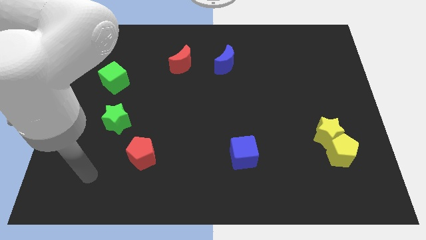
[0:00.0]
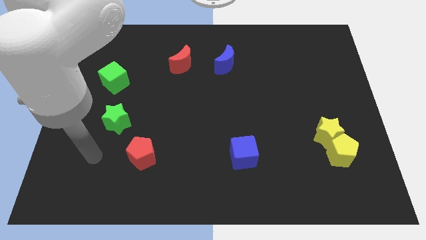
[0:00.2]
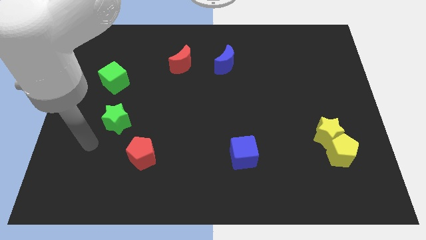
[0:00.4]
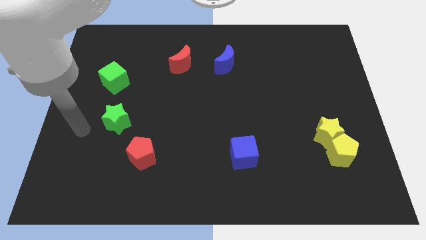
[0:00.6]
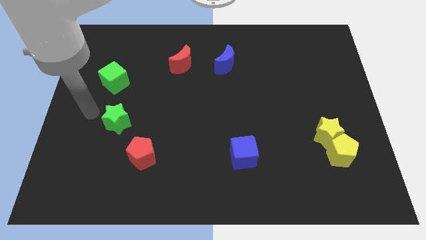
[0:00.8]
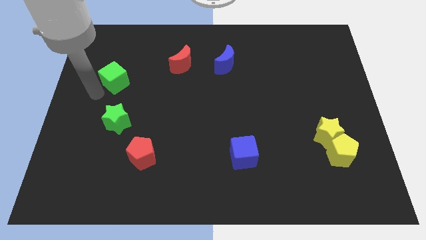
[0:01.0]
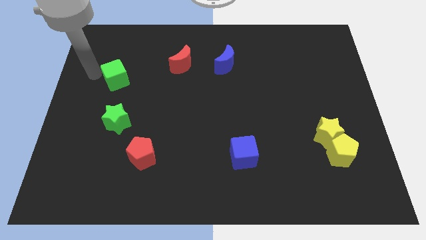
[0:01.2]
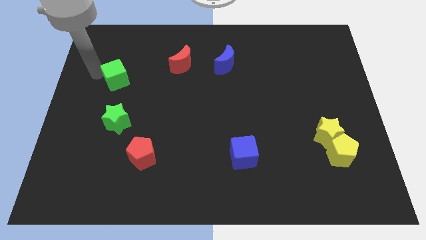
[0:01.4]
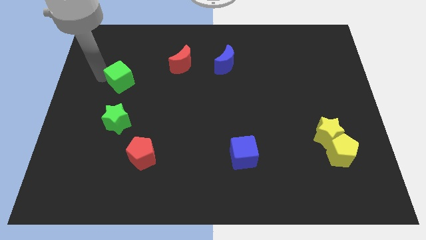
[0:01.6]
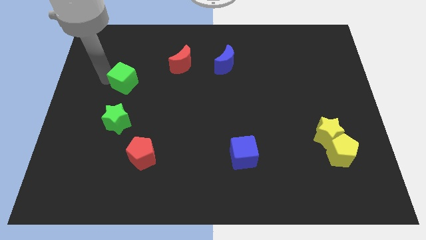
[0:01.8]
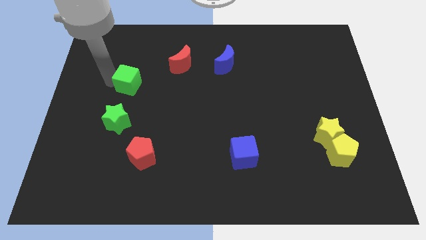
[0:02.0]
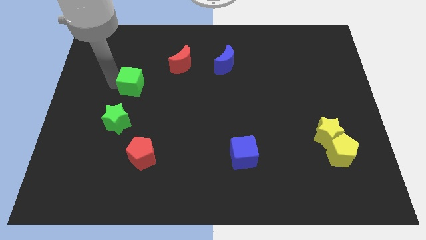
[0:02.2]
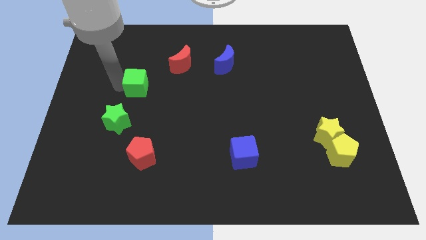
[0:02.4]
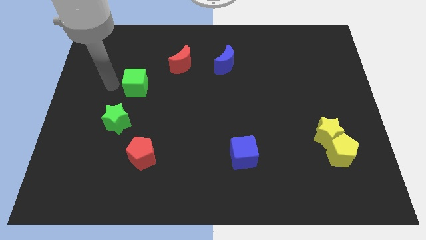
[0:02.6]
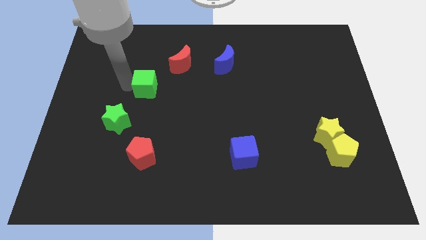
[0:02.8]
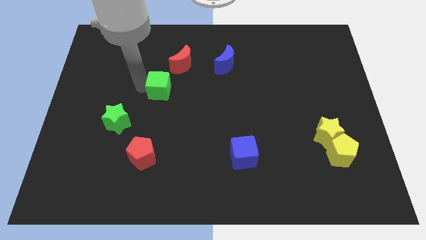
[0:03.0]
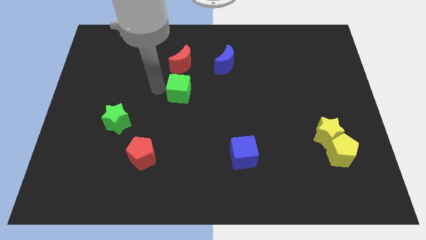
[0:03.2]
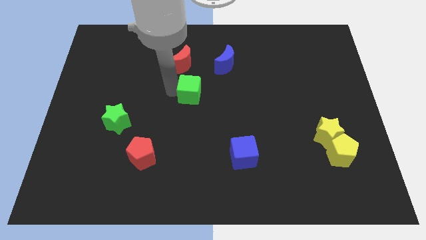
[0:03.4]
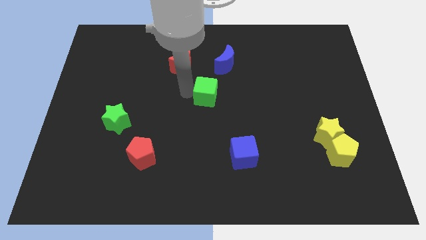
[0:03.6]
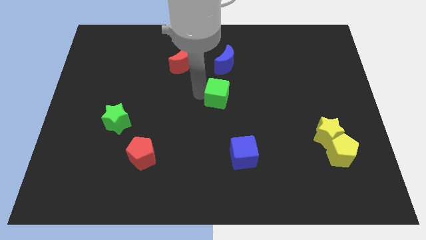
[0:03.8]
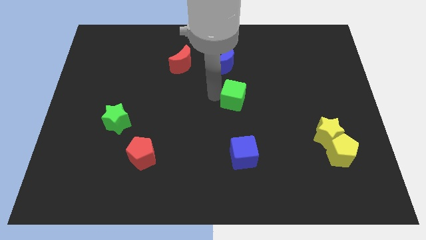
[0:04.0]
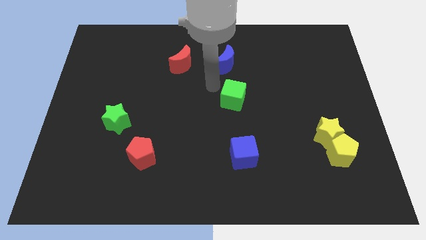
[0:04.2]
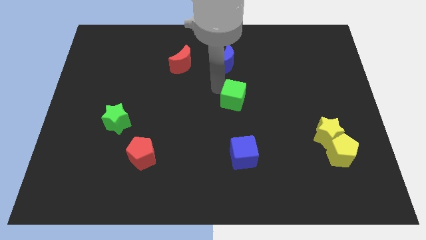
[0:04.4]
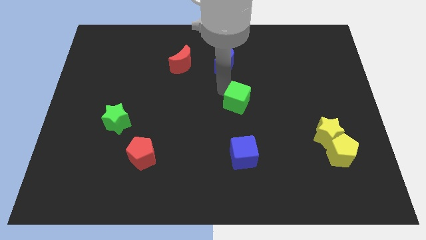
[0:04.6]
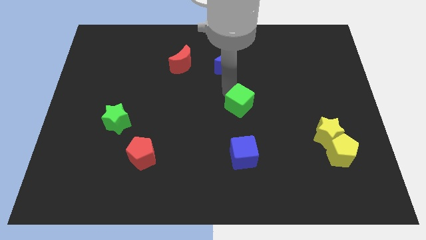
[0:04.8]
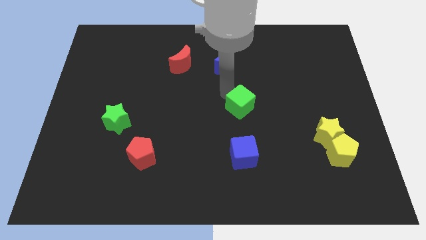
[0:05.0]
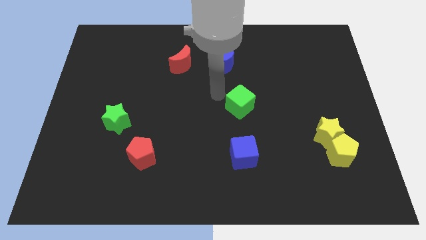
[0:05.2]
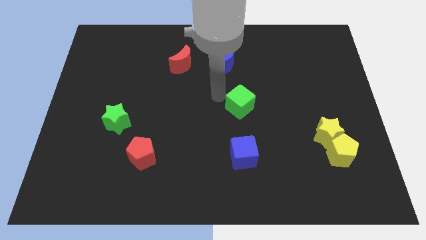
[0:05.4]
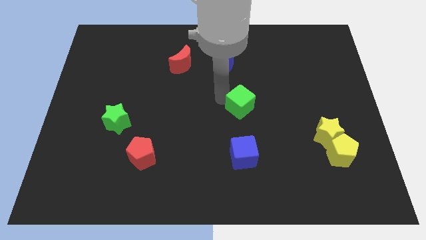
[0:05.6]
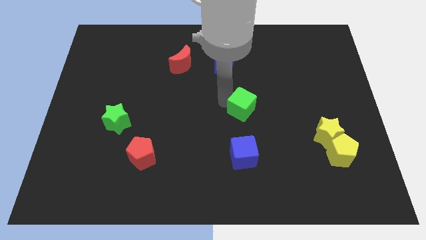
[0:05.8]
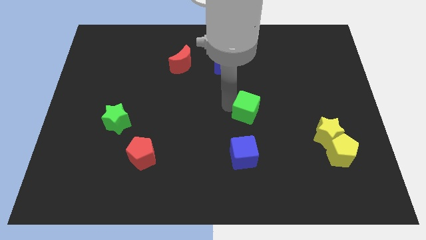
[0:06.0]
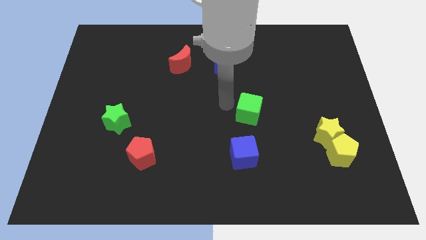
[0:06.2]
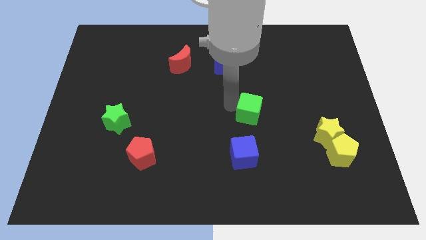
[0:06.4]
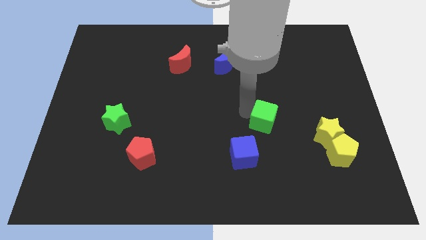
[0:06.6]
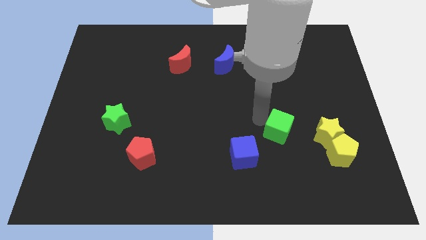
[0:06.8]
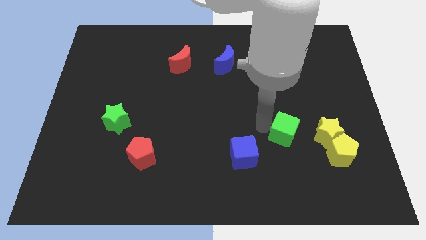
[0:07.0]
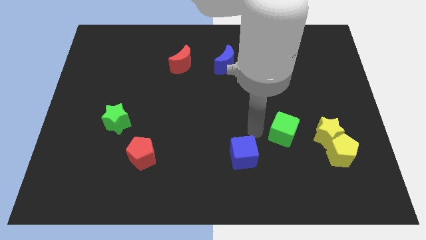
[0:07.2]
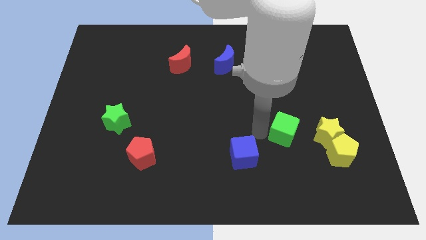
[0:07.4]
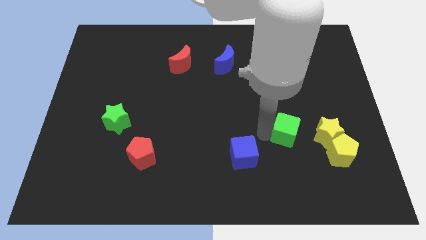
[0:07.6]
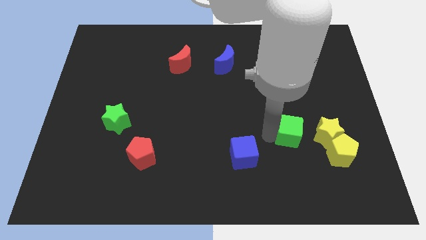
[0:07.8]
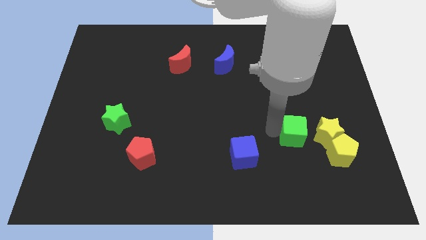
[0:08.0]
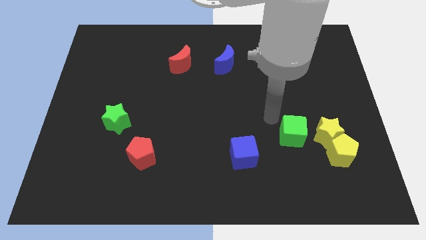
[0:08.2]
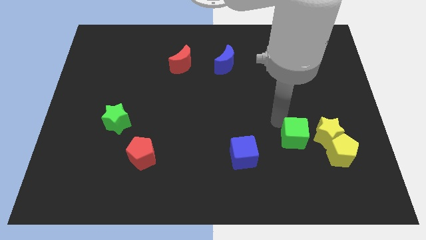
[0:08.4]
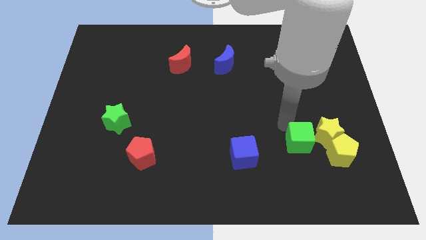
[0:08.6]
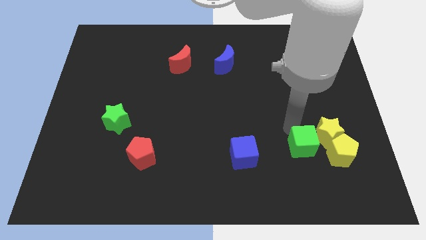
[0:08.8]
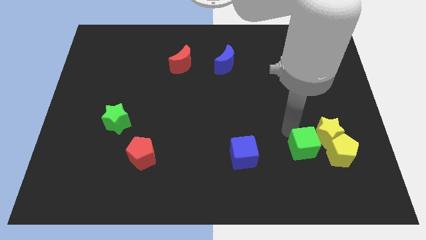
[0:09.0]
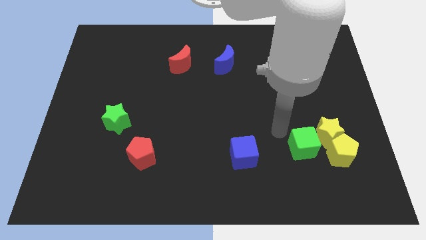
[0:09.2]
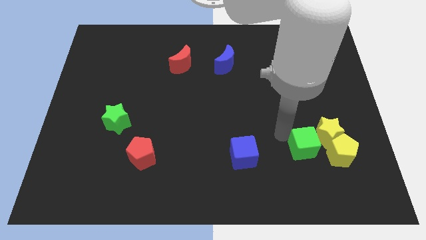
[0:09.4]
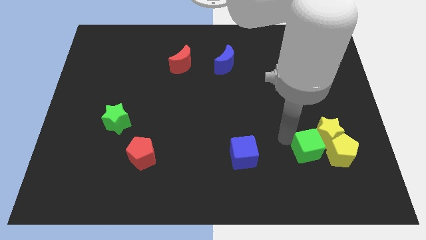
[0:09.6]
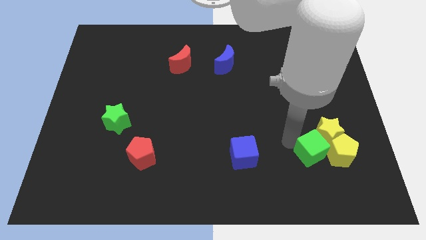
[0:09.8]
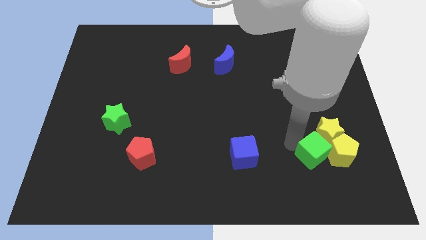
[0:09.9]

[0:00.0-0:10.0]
push the green cube close to the yellow pentagon

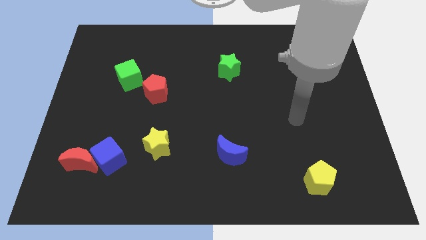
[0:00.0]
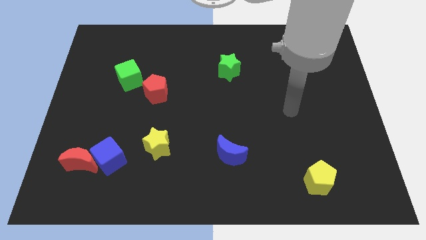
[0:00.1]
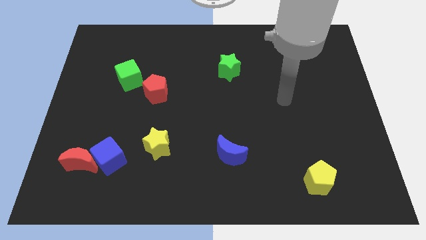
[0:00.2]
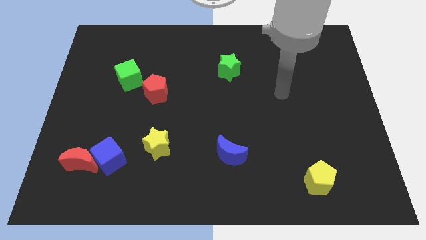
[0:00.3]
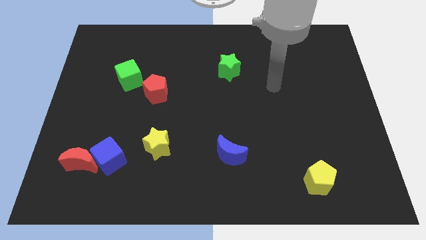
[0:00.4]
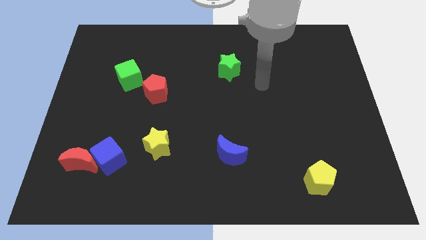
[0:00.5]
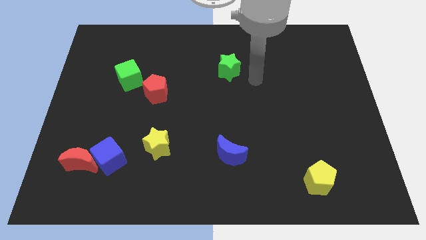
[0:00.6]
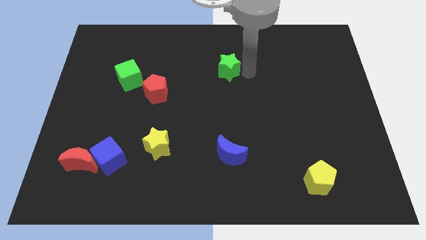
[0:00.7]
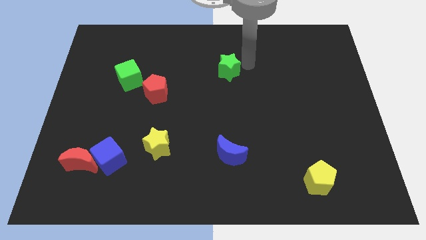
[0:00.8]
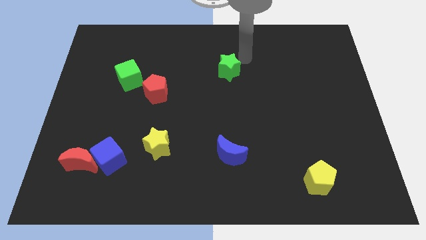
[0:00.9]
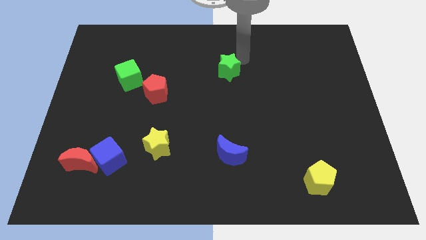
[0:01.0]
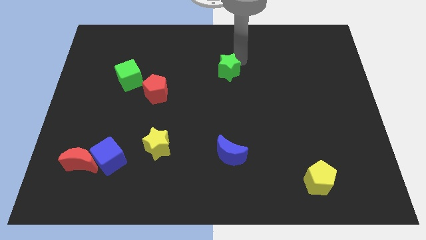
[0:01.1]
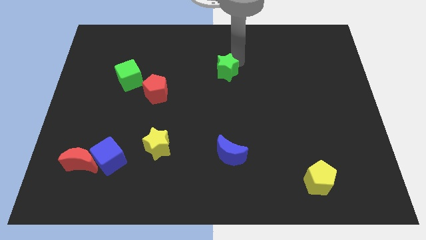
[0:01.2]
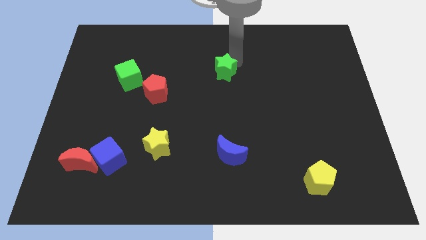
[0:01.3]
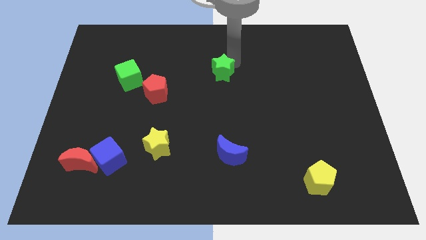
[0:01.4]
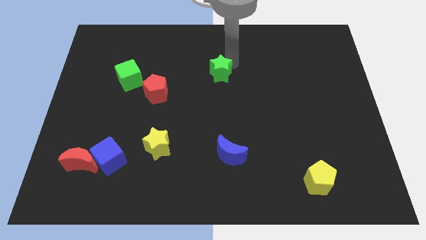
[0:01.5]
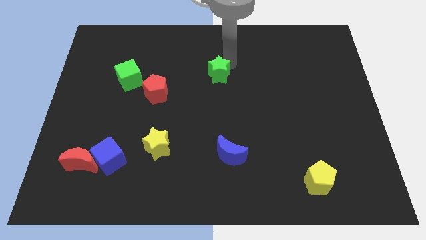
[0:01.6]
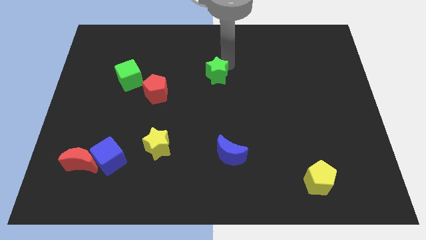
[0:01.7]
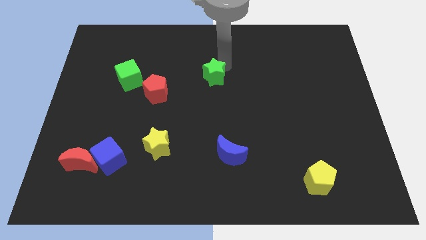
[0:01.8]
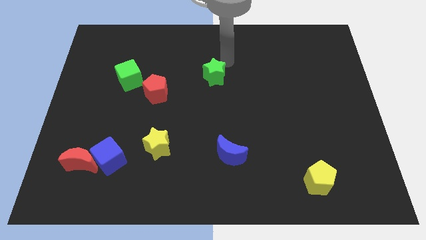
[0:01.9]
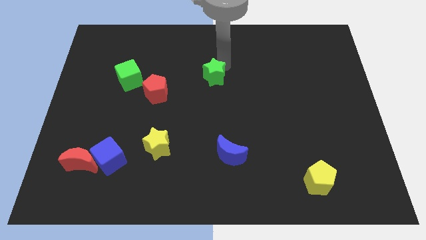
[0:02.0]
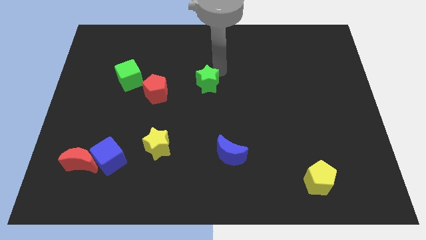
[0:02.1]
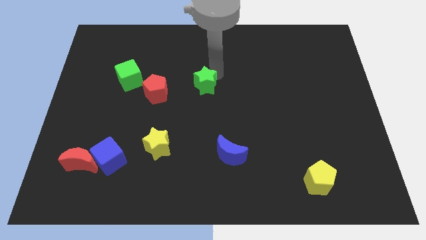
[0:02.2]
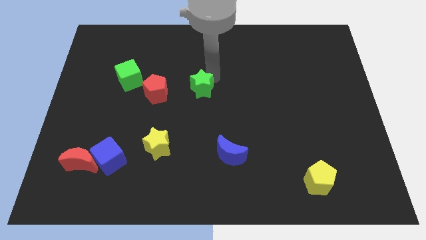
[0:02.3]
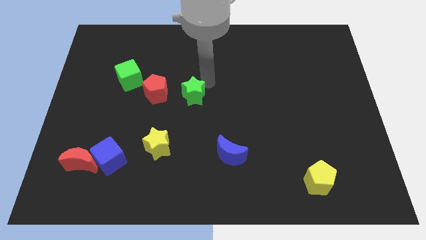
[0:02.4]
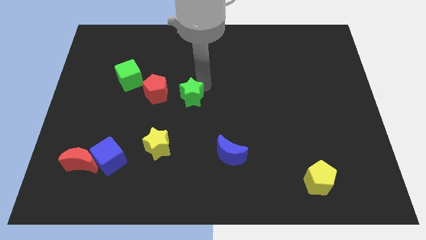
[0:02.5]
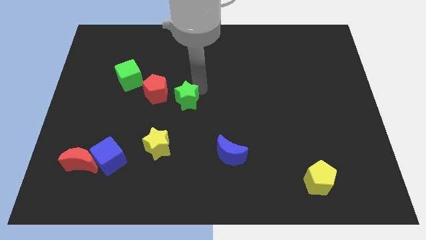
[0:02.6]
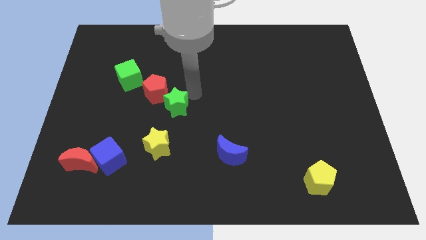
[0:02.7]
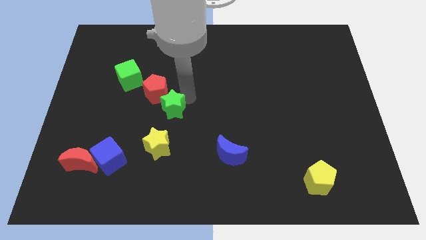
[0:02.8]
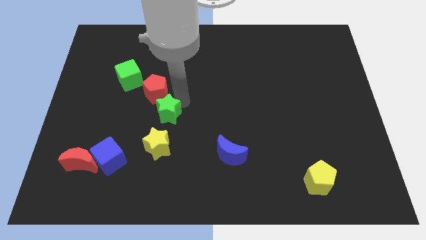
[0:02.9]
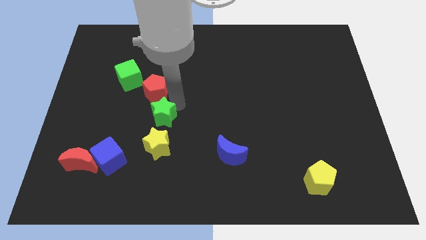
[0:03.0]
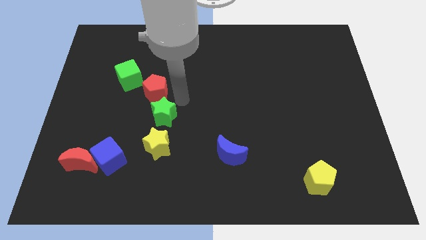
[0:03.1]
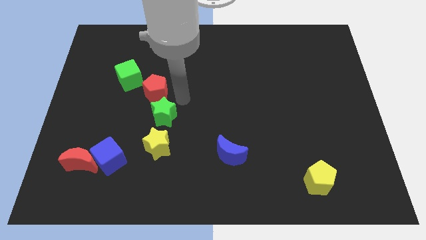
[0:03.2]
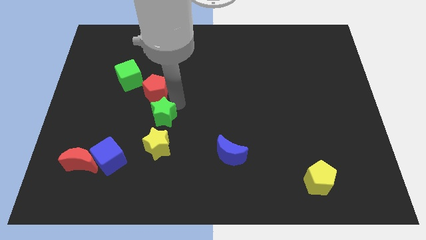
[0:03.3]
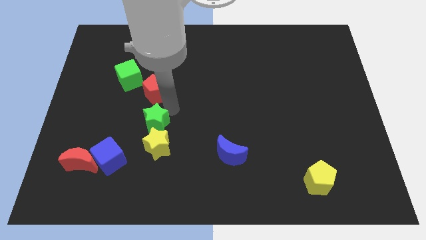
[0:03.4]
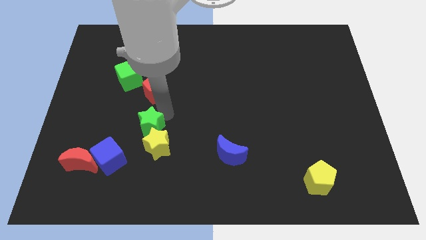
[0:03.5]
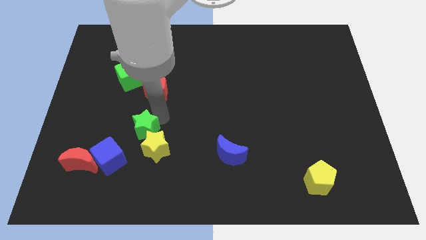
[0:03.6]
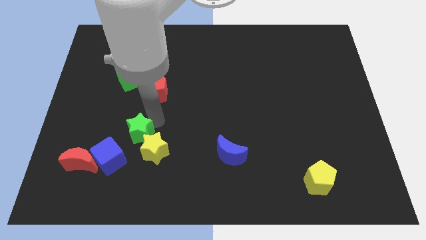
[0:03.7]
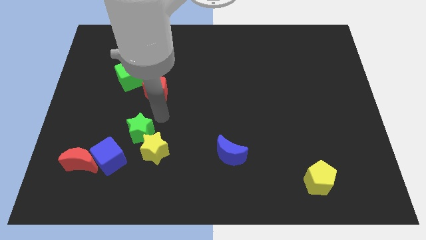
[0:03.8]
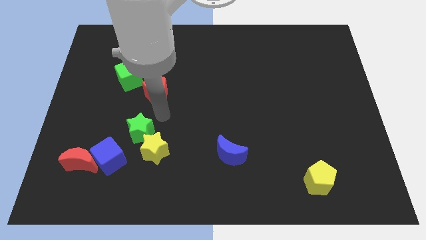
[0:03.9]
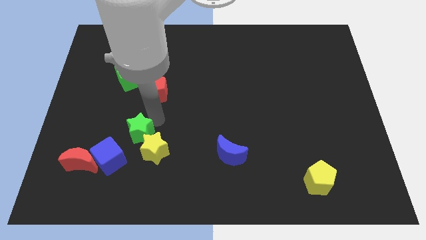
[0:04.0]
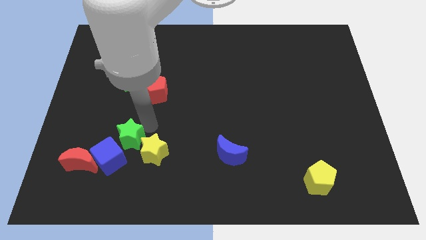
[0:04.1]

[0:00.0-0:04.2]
put the green star next to the blue cube
